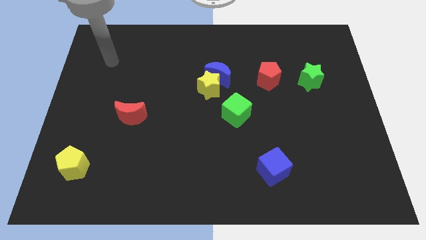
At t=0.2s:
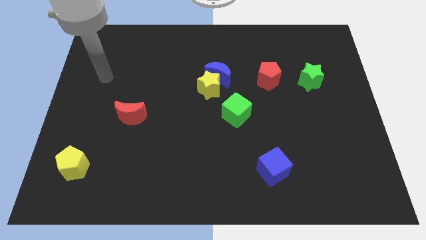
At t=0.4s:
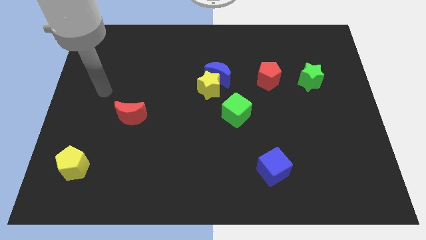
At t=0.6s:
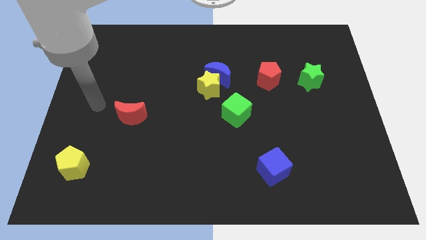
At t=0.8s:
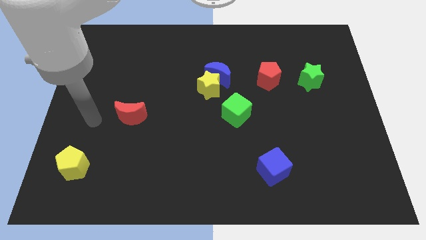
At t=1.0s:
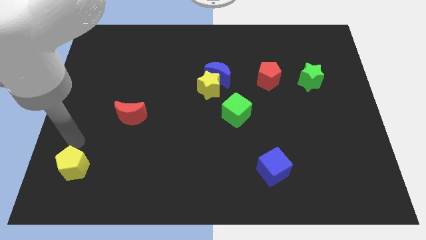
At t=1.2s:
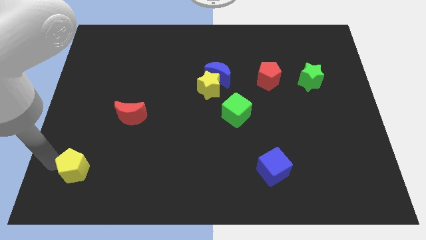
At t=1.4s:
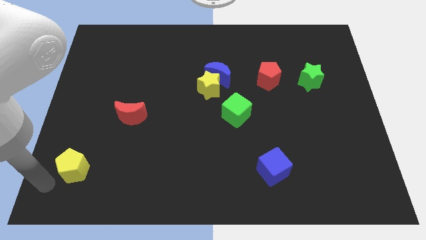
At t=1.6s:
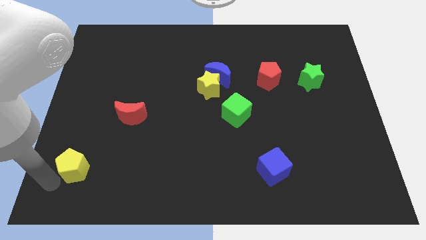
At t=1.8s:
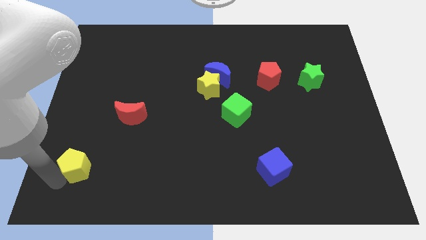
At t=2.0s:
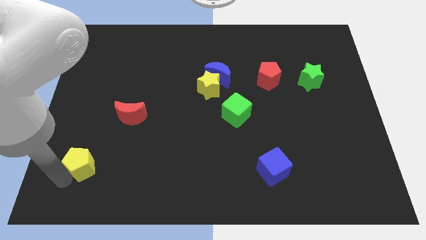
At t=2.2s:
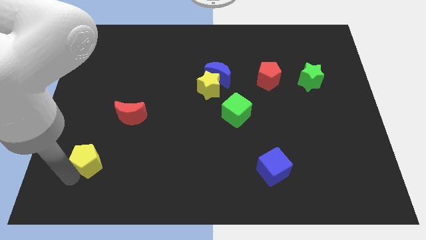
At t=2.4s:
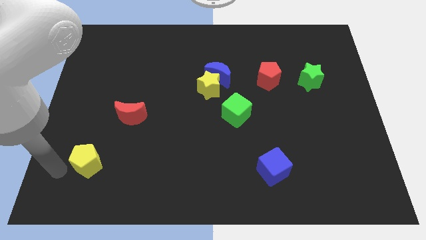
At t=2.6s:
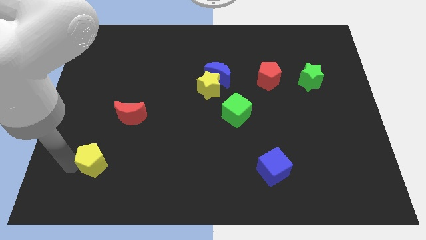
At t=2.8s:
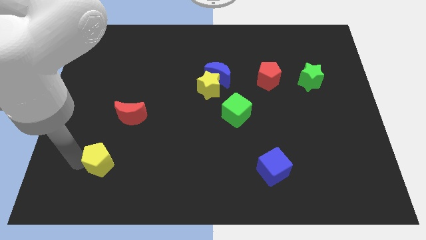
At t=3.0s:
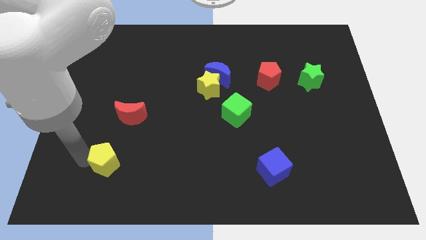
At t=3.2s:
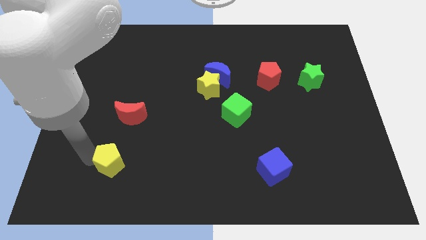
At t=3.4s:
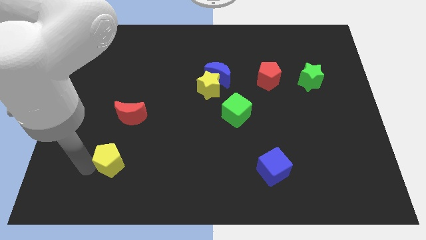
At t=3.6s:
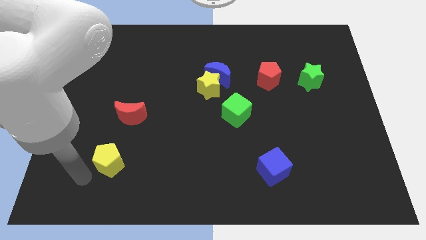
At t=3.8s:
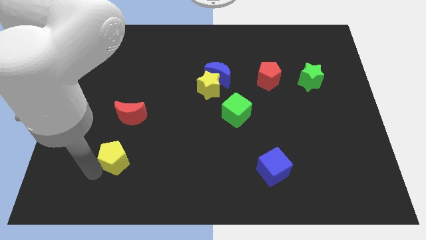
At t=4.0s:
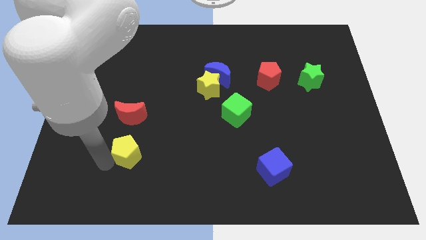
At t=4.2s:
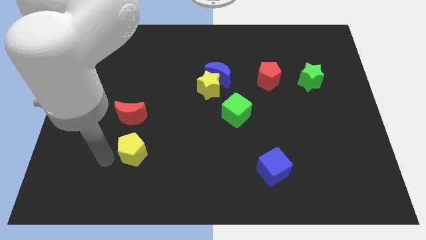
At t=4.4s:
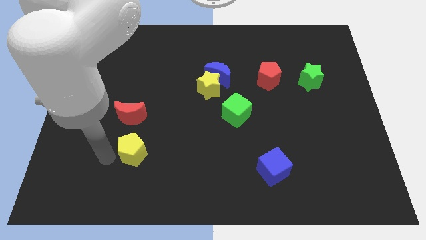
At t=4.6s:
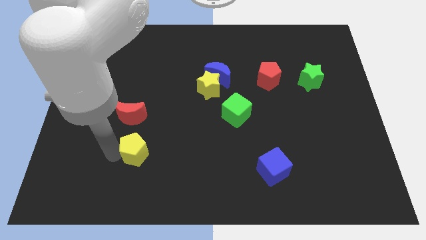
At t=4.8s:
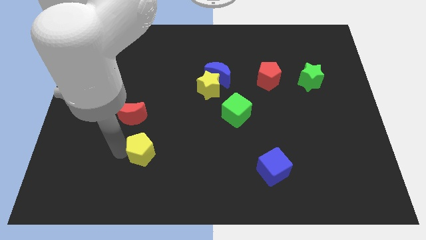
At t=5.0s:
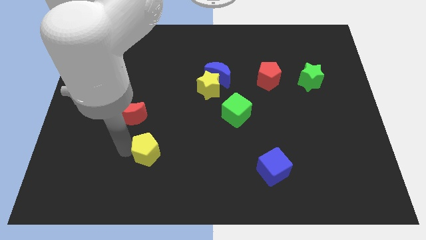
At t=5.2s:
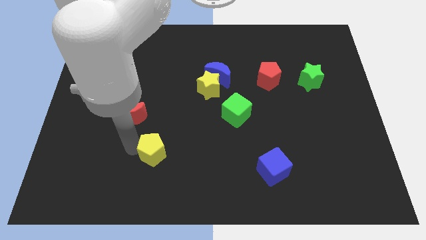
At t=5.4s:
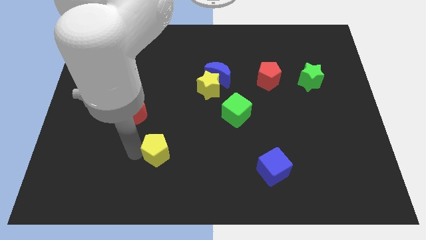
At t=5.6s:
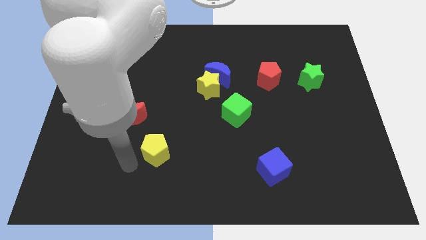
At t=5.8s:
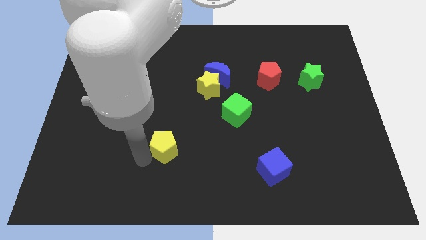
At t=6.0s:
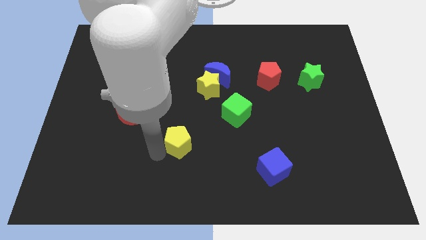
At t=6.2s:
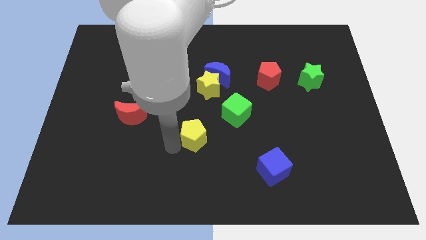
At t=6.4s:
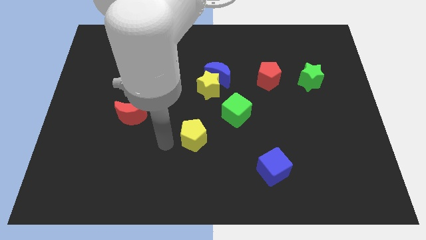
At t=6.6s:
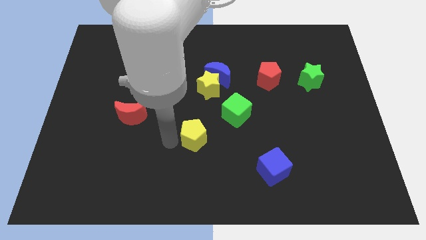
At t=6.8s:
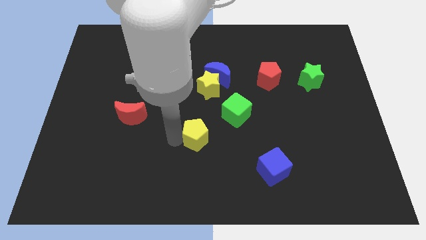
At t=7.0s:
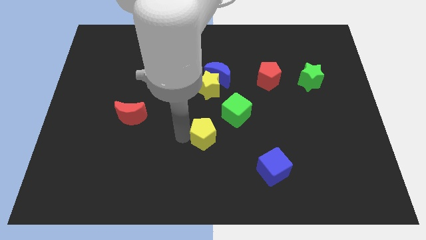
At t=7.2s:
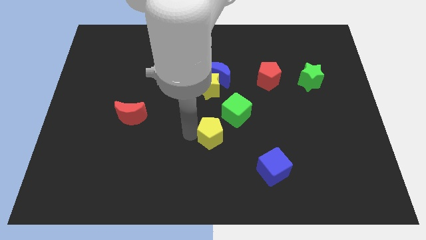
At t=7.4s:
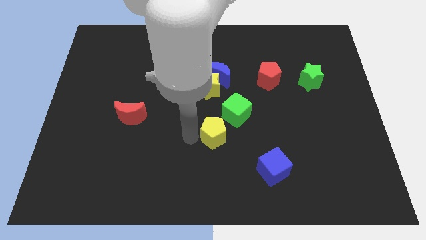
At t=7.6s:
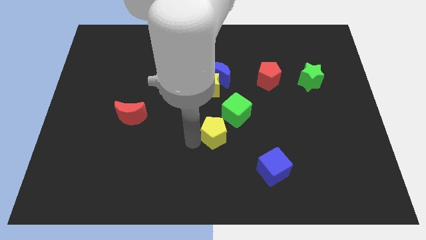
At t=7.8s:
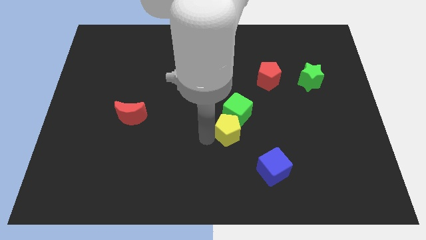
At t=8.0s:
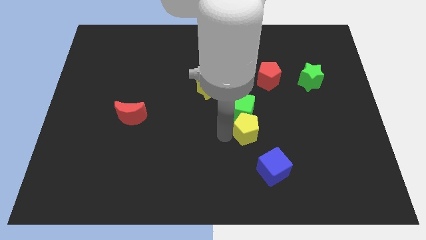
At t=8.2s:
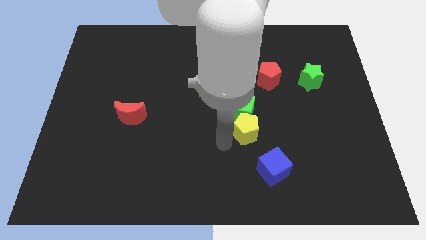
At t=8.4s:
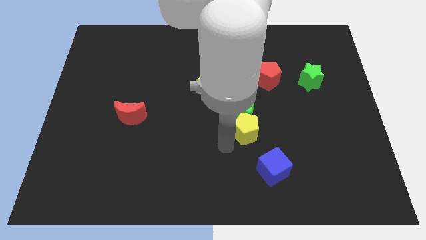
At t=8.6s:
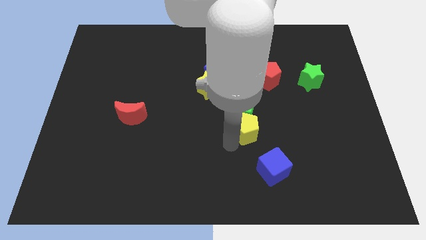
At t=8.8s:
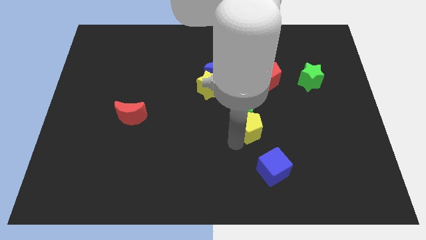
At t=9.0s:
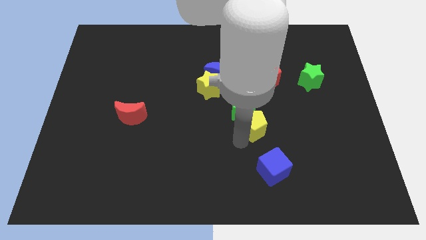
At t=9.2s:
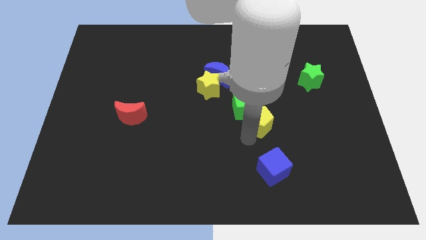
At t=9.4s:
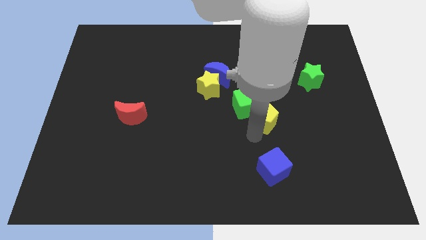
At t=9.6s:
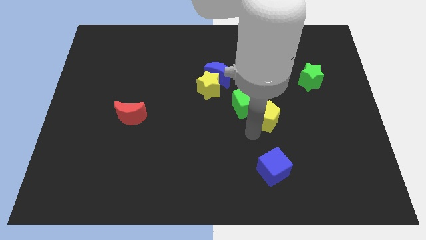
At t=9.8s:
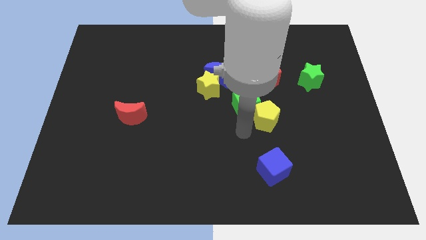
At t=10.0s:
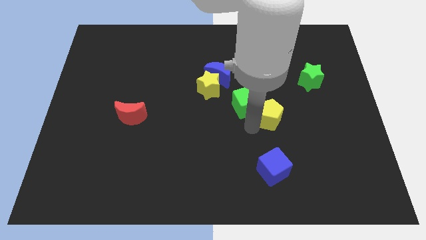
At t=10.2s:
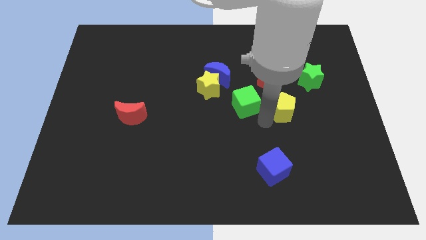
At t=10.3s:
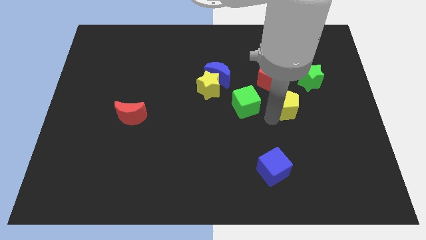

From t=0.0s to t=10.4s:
move the yellow pentagon diagonally down and to the right of the red pentagon

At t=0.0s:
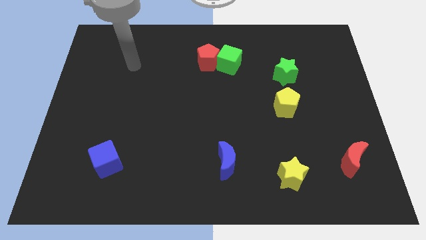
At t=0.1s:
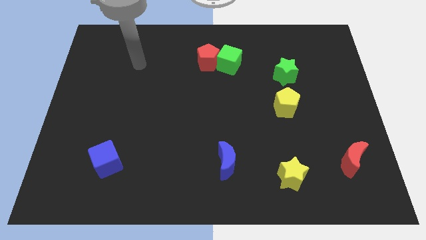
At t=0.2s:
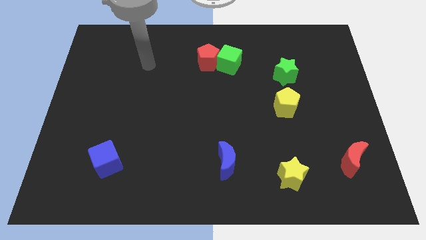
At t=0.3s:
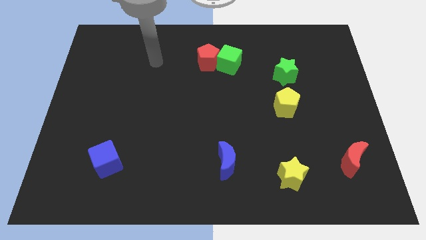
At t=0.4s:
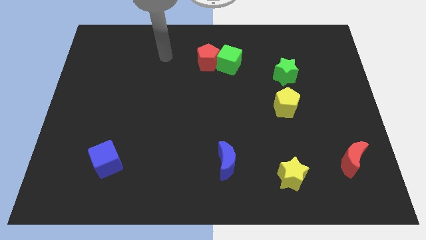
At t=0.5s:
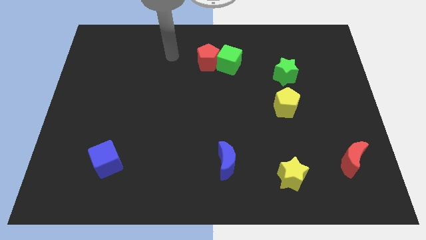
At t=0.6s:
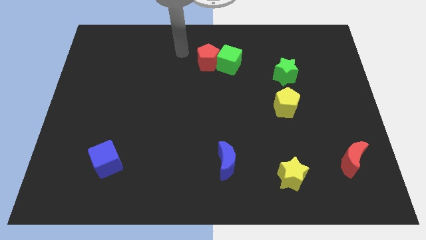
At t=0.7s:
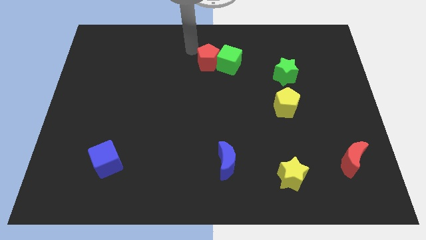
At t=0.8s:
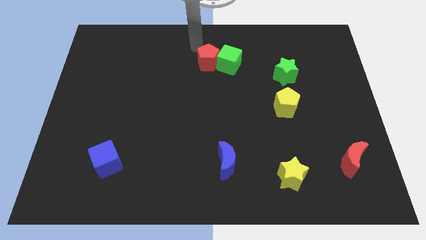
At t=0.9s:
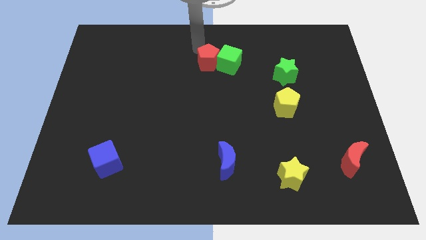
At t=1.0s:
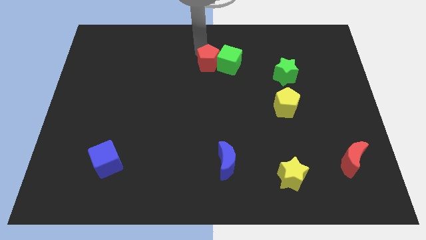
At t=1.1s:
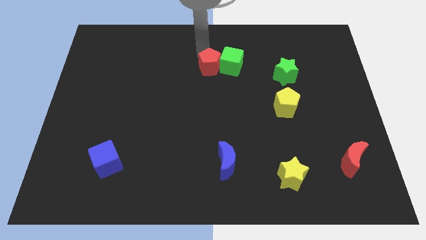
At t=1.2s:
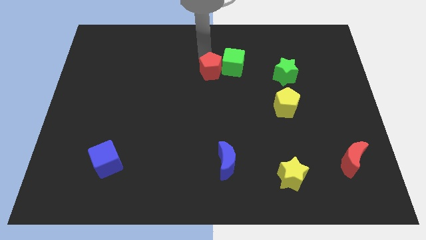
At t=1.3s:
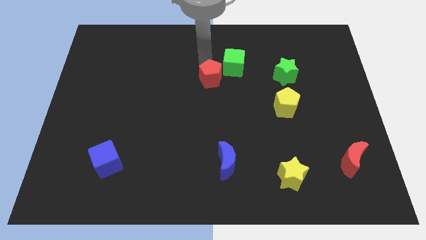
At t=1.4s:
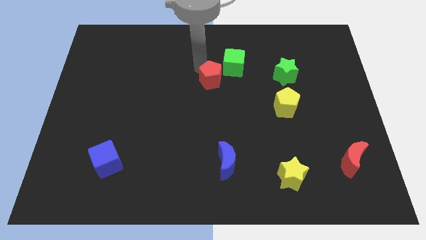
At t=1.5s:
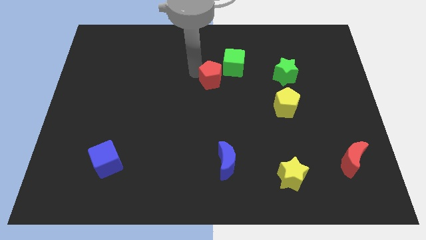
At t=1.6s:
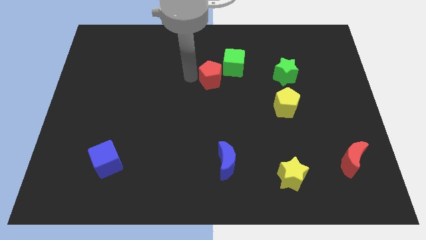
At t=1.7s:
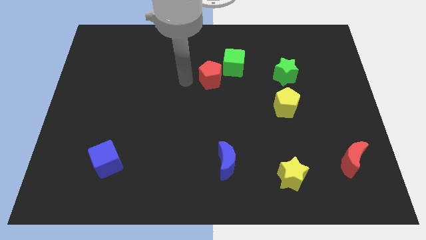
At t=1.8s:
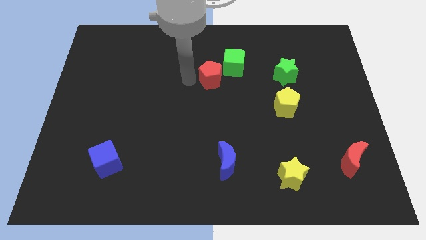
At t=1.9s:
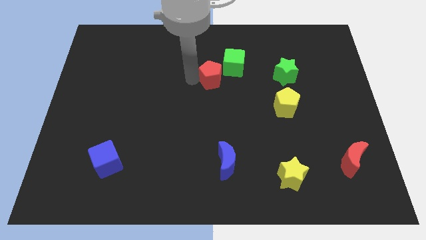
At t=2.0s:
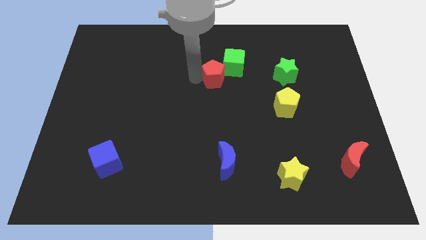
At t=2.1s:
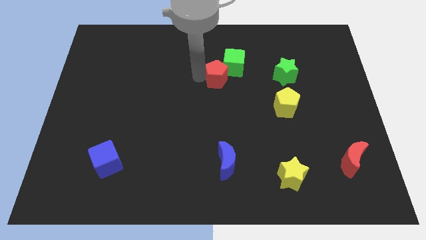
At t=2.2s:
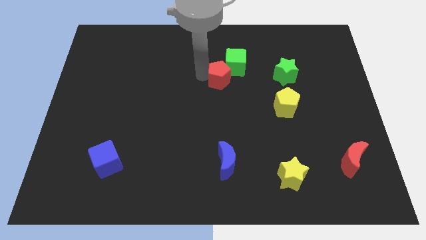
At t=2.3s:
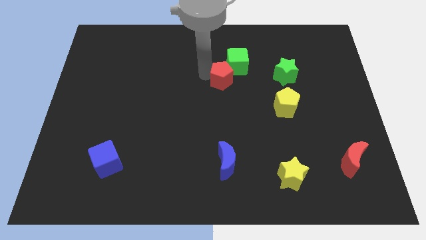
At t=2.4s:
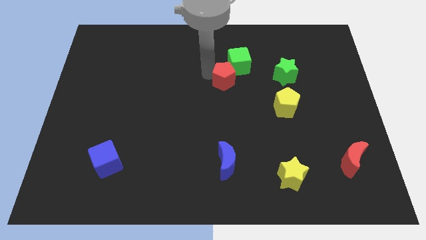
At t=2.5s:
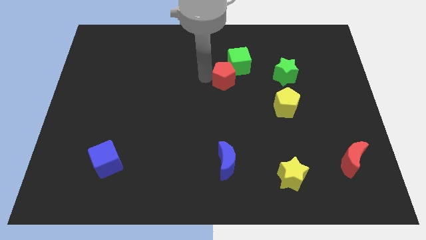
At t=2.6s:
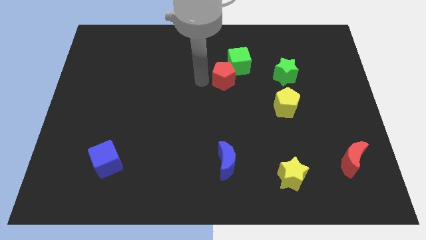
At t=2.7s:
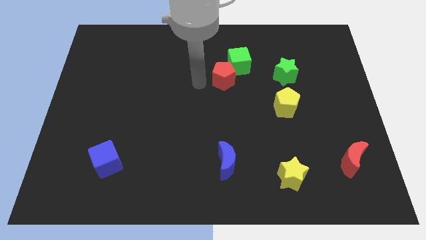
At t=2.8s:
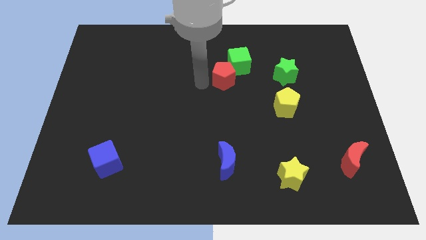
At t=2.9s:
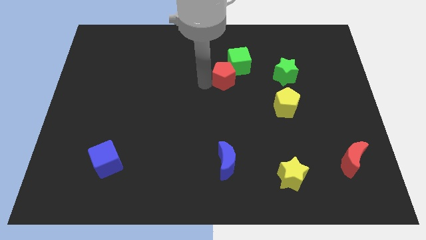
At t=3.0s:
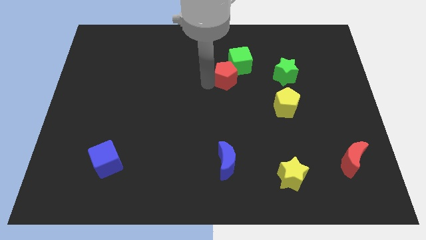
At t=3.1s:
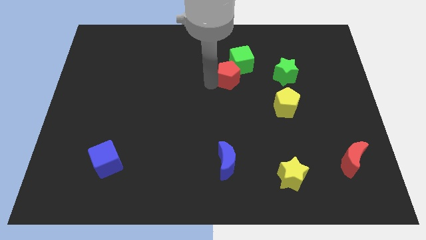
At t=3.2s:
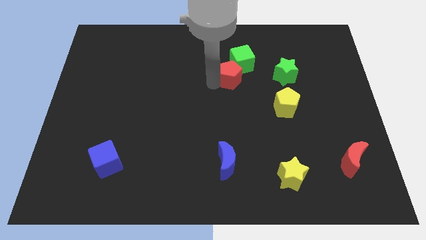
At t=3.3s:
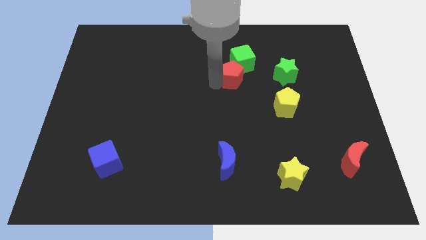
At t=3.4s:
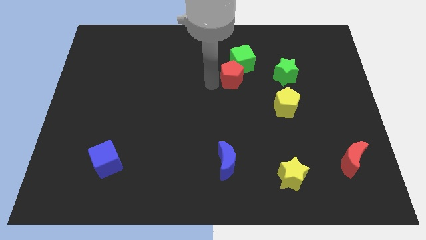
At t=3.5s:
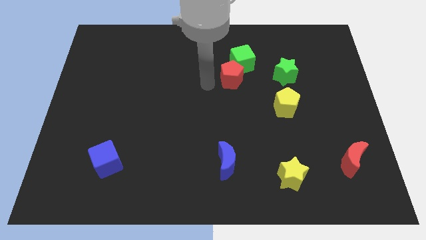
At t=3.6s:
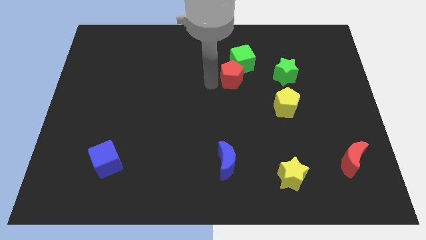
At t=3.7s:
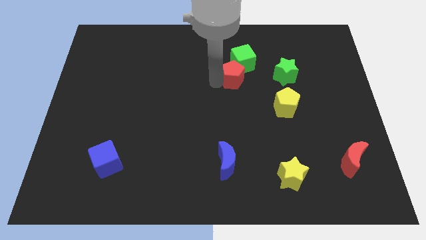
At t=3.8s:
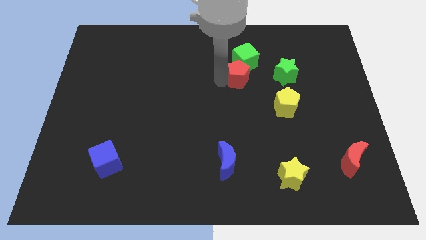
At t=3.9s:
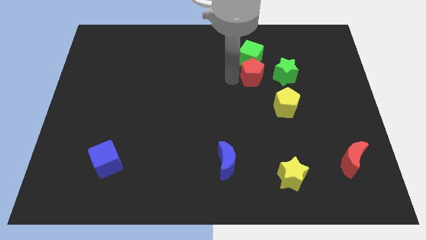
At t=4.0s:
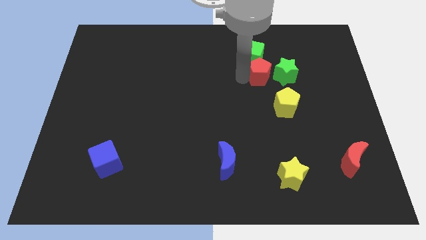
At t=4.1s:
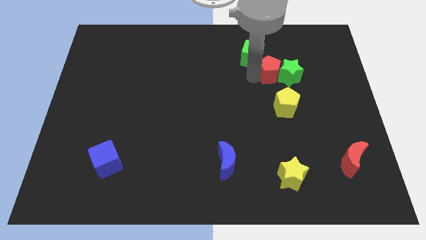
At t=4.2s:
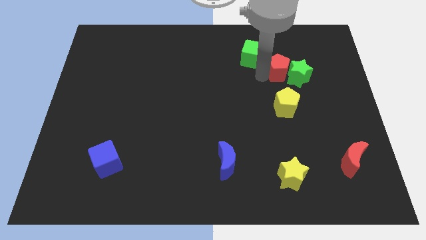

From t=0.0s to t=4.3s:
push the red pentagon to the right side of the green cube
